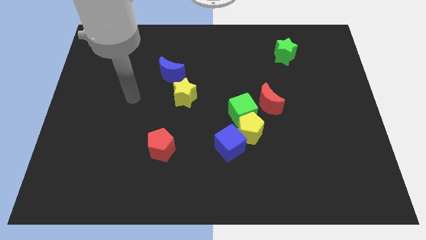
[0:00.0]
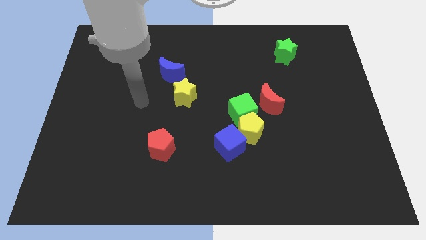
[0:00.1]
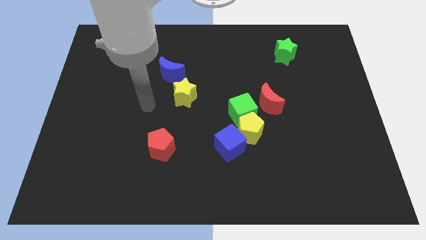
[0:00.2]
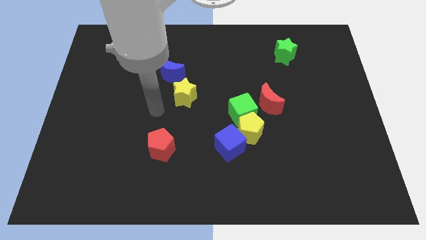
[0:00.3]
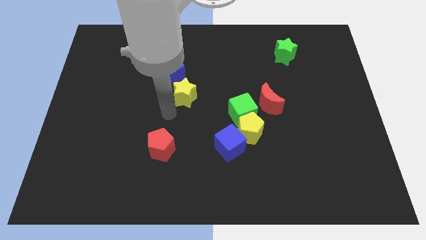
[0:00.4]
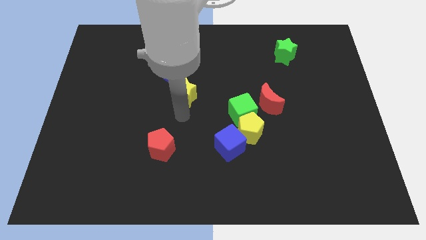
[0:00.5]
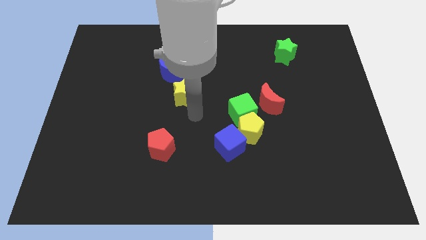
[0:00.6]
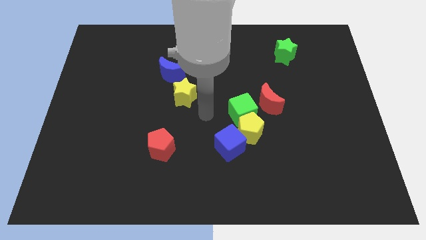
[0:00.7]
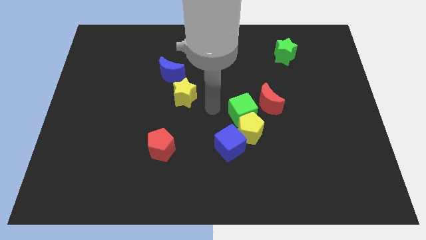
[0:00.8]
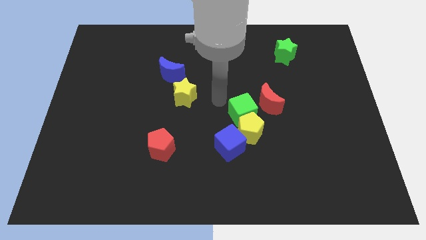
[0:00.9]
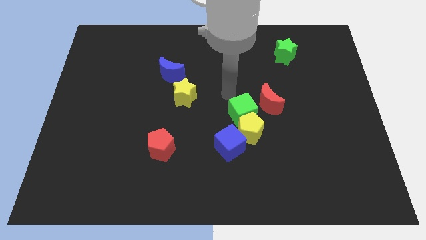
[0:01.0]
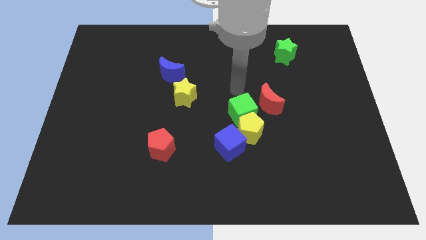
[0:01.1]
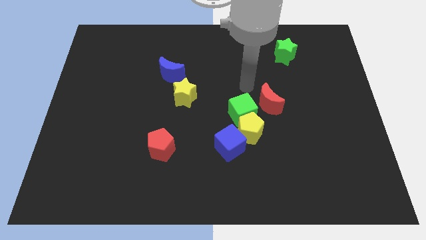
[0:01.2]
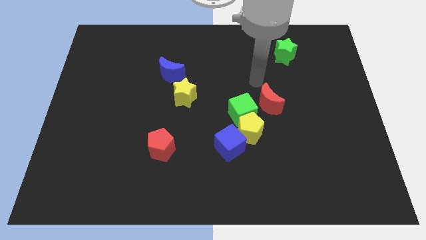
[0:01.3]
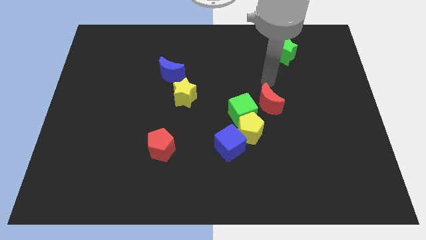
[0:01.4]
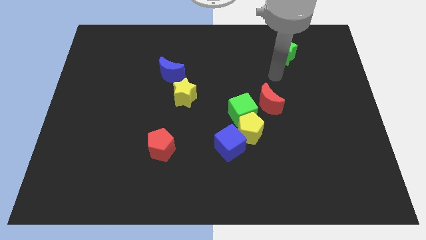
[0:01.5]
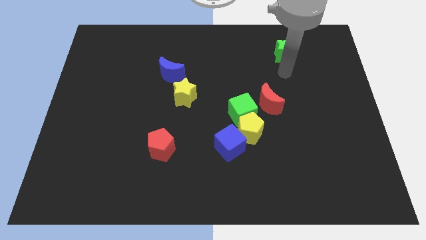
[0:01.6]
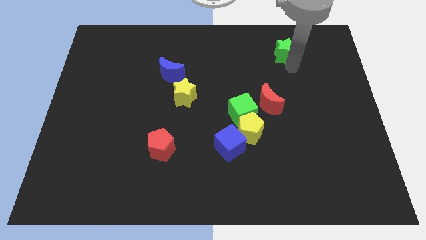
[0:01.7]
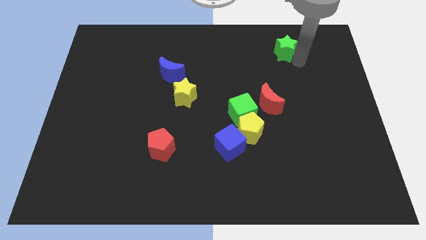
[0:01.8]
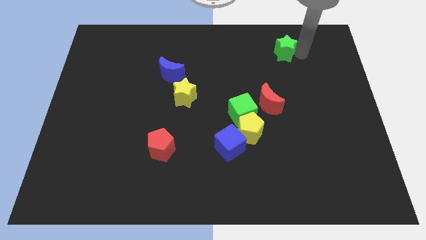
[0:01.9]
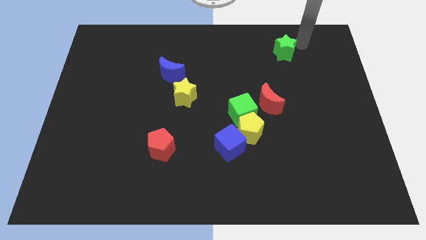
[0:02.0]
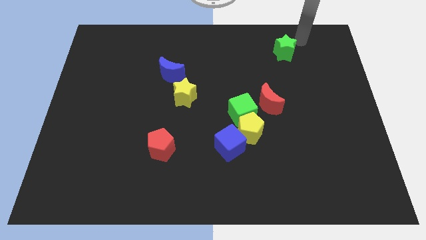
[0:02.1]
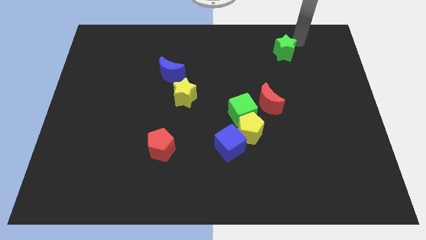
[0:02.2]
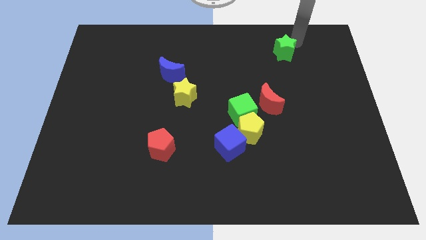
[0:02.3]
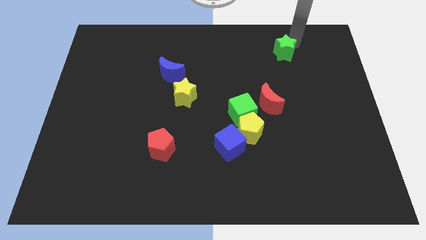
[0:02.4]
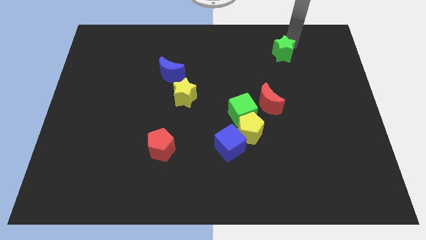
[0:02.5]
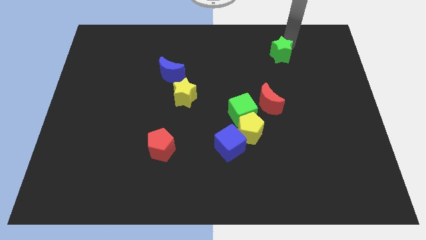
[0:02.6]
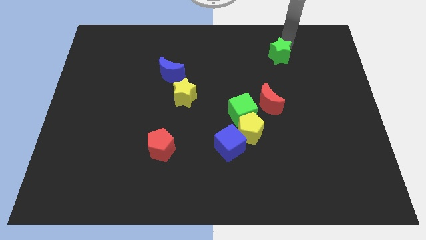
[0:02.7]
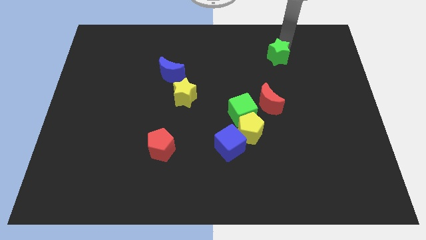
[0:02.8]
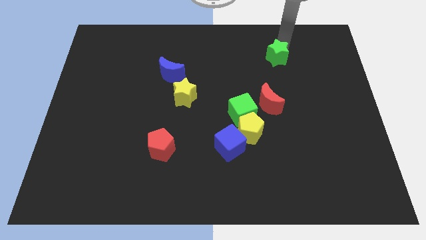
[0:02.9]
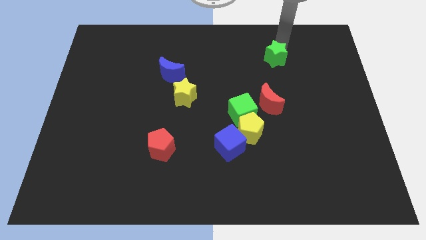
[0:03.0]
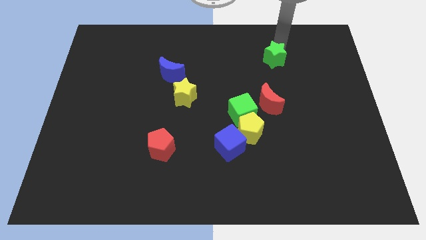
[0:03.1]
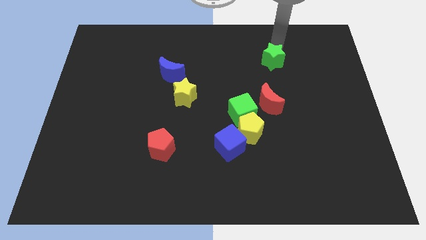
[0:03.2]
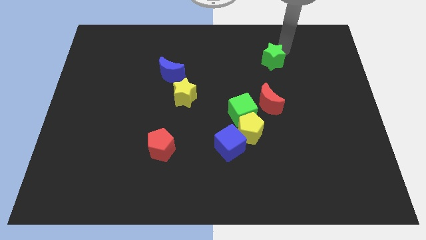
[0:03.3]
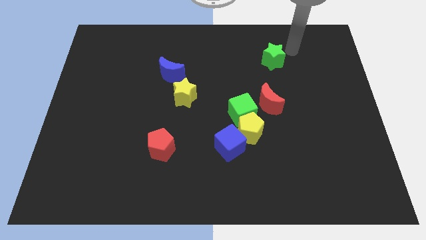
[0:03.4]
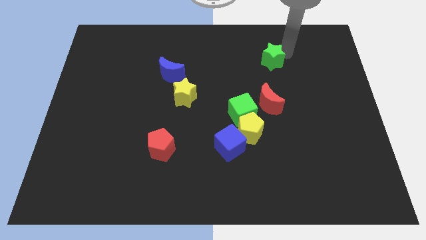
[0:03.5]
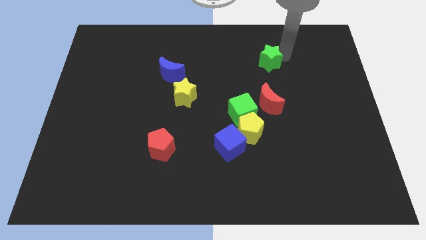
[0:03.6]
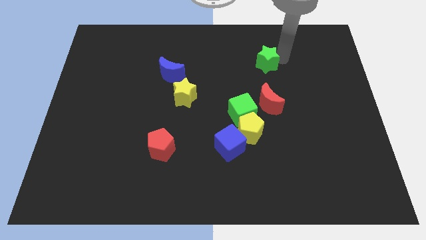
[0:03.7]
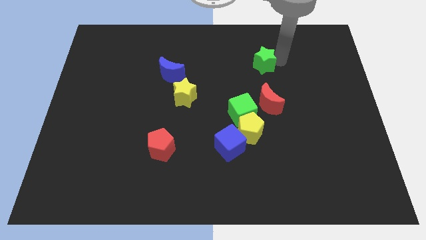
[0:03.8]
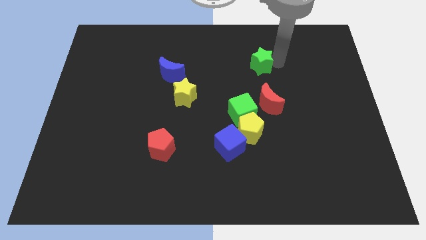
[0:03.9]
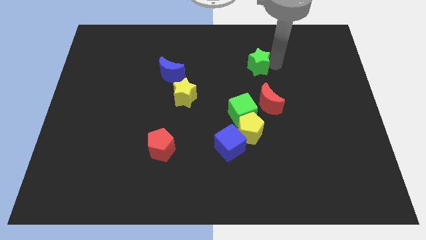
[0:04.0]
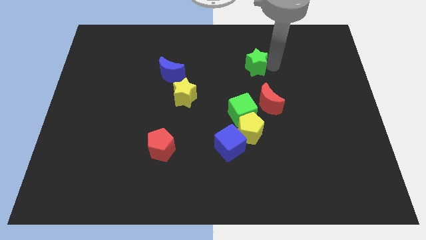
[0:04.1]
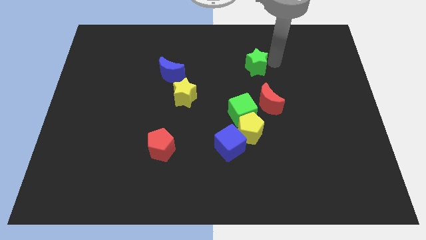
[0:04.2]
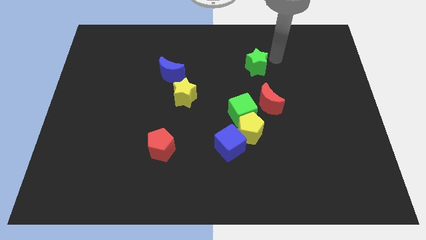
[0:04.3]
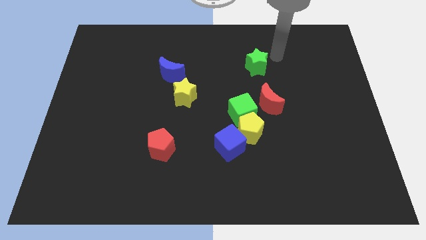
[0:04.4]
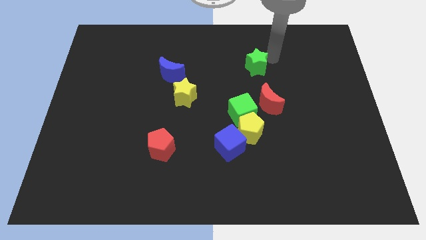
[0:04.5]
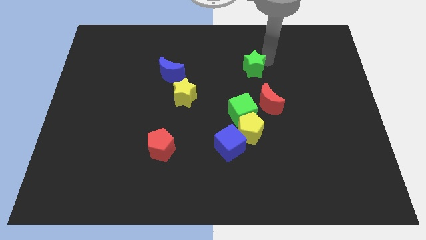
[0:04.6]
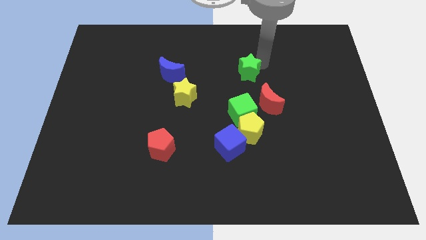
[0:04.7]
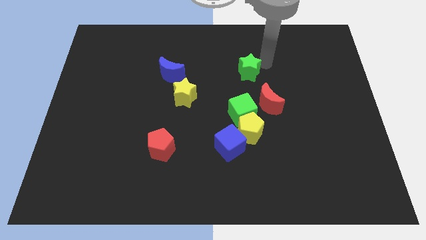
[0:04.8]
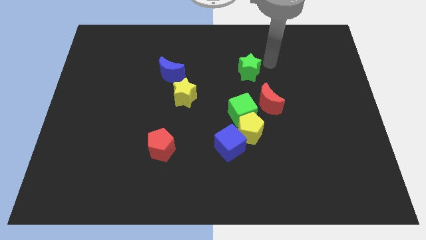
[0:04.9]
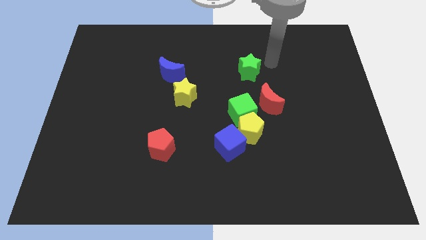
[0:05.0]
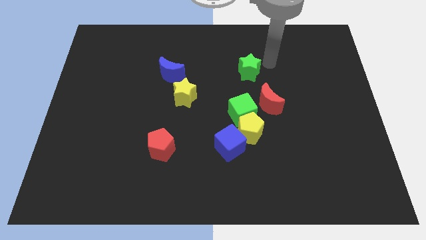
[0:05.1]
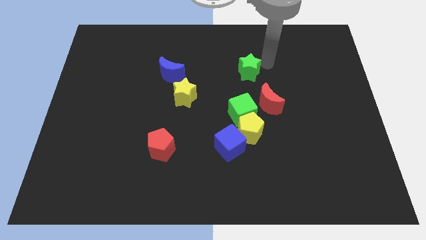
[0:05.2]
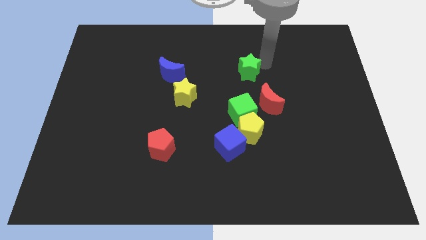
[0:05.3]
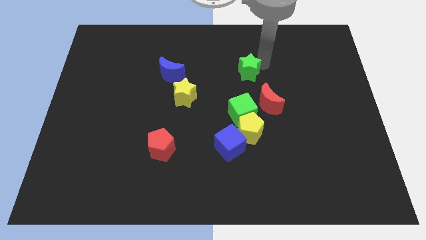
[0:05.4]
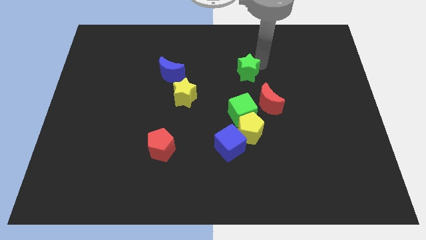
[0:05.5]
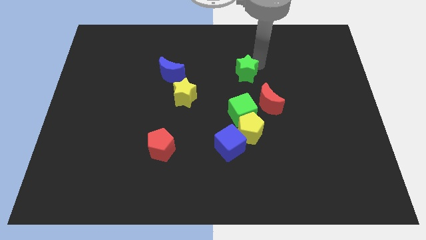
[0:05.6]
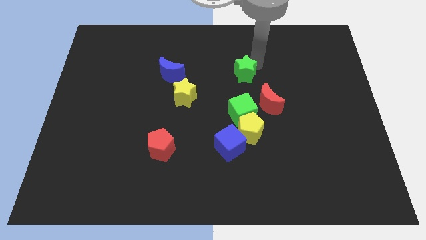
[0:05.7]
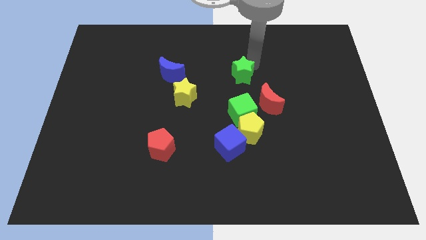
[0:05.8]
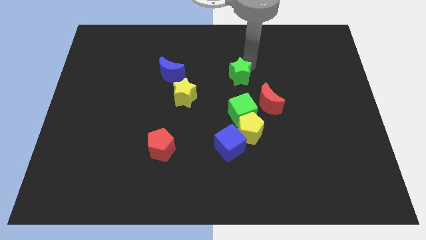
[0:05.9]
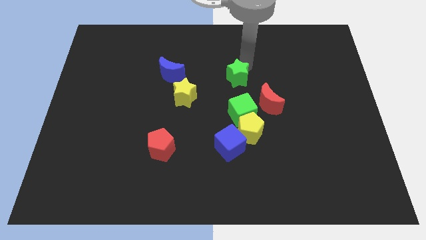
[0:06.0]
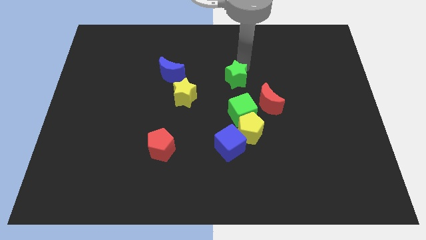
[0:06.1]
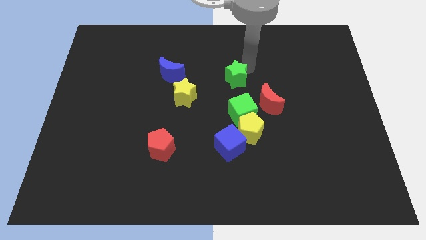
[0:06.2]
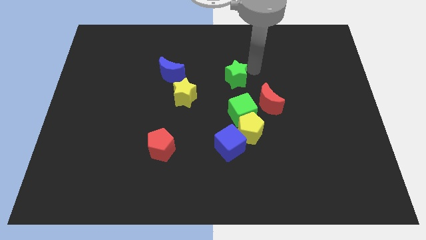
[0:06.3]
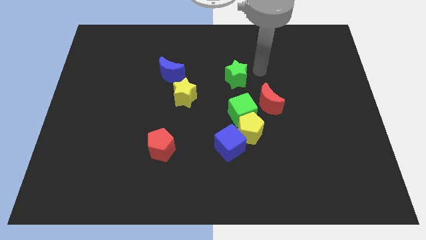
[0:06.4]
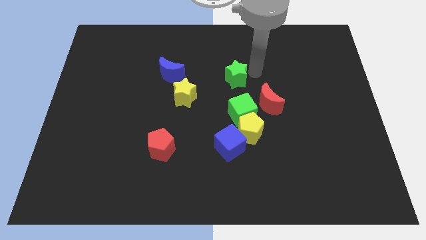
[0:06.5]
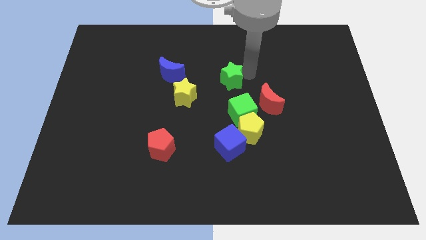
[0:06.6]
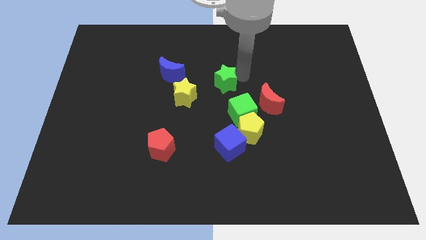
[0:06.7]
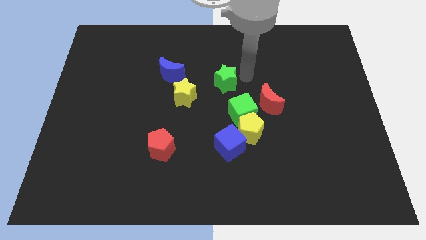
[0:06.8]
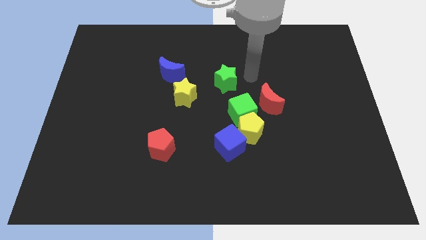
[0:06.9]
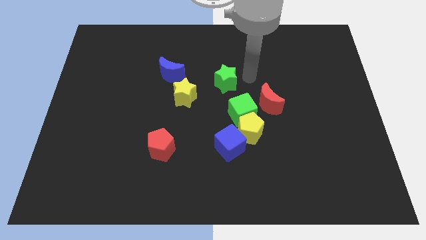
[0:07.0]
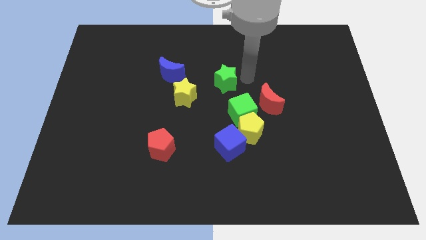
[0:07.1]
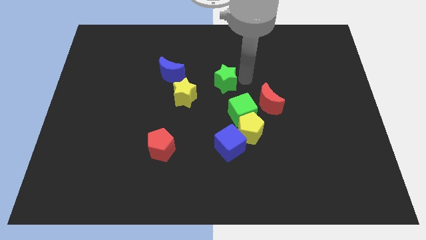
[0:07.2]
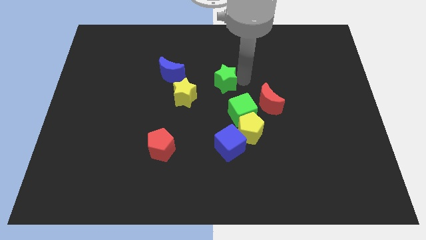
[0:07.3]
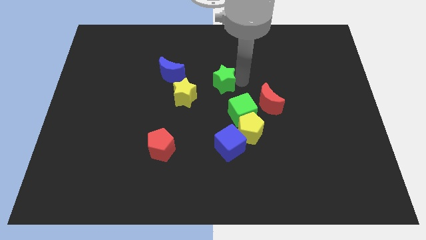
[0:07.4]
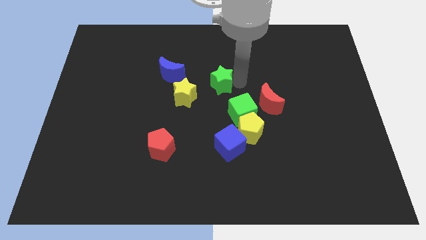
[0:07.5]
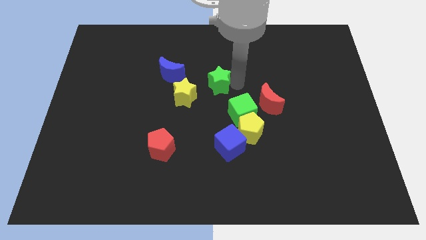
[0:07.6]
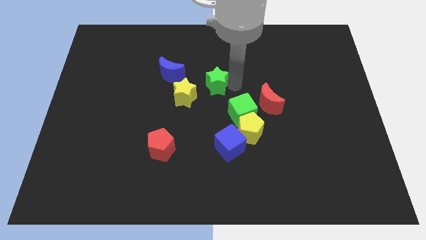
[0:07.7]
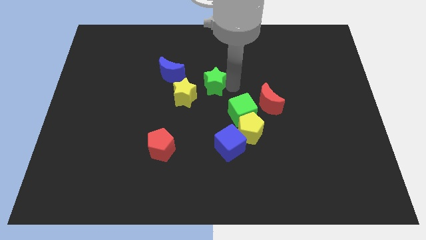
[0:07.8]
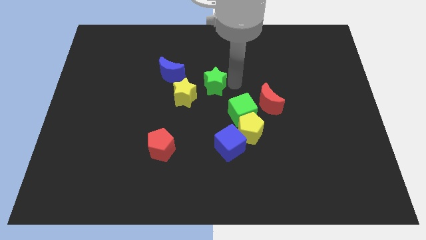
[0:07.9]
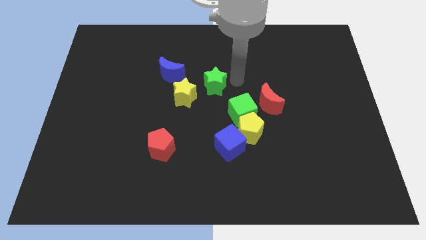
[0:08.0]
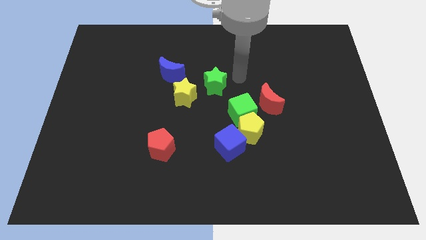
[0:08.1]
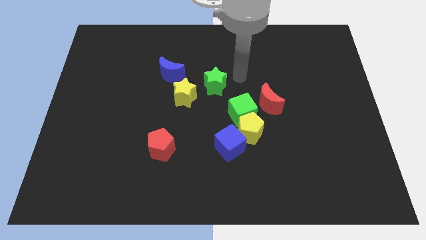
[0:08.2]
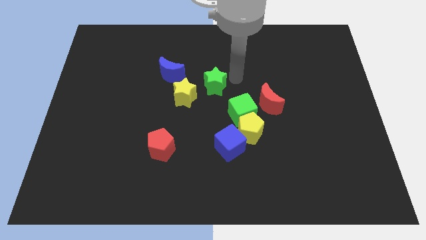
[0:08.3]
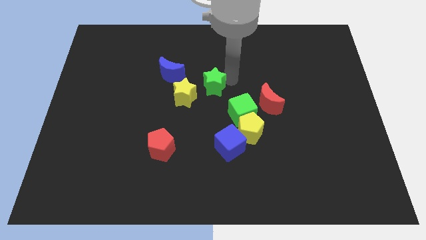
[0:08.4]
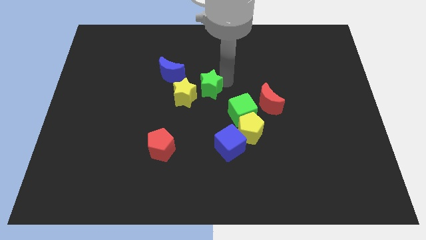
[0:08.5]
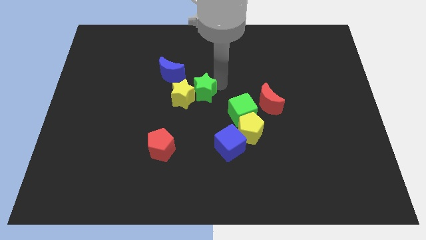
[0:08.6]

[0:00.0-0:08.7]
slide the green star next to the yellow star
